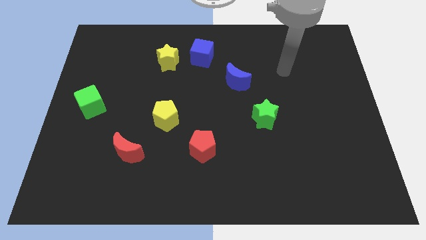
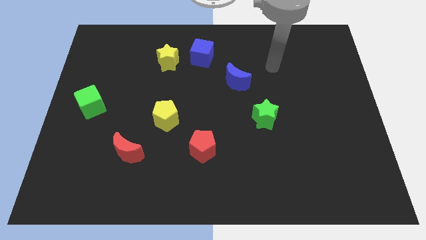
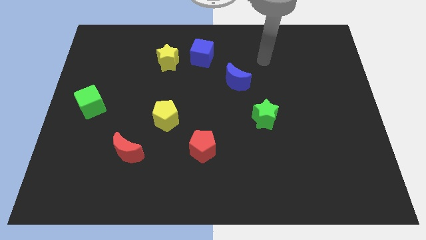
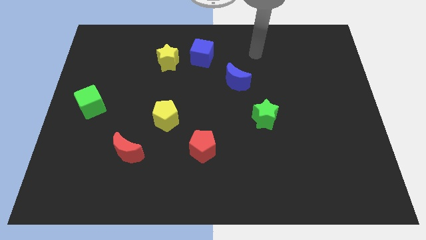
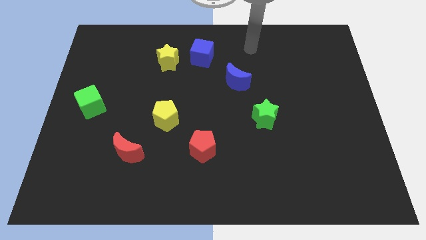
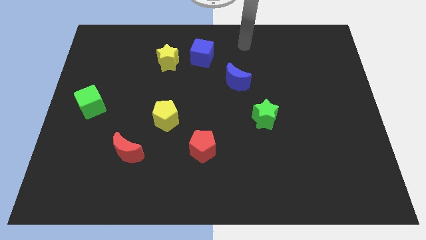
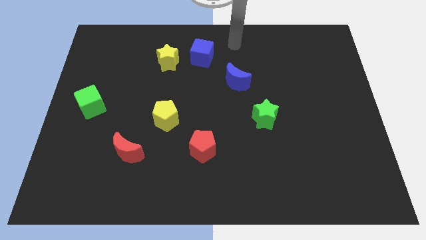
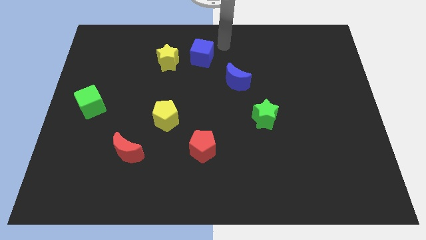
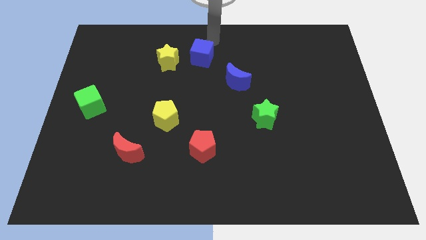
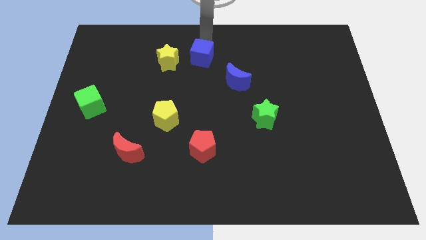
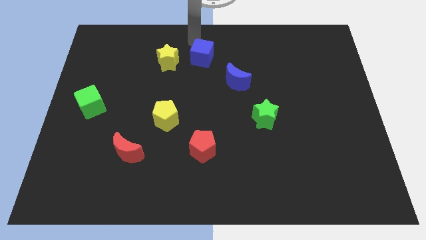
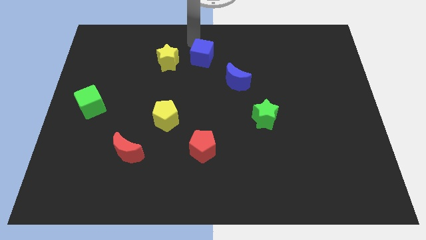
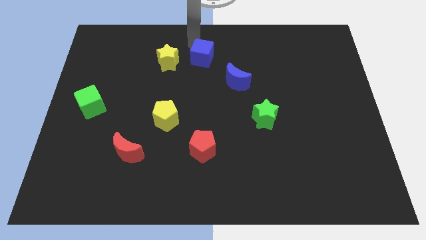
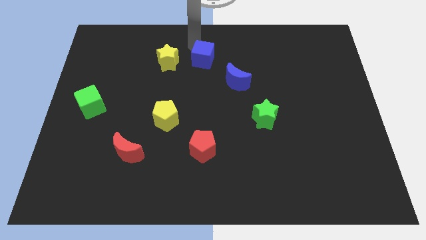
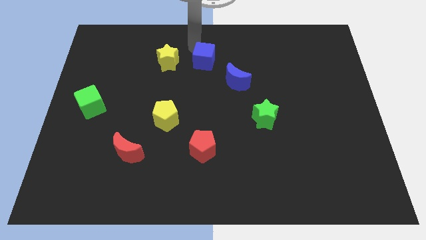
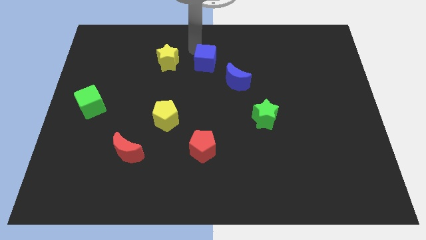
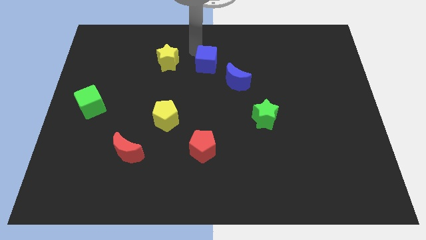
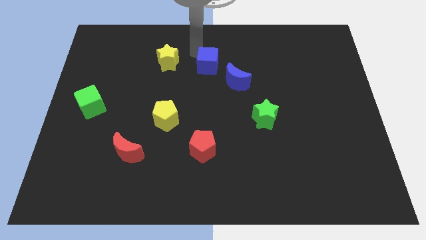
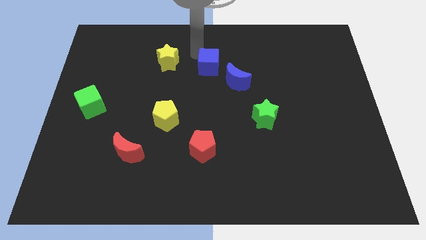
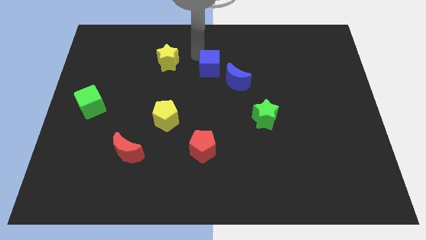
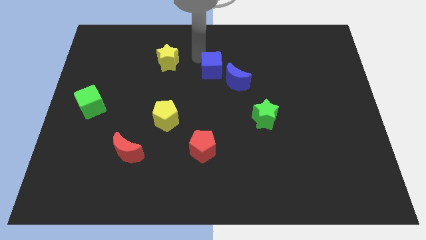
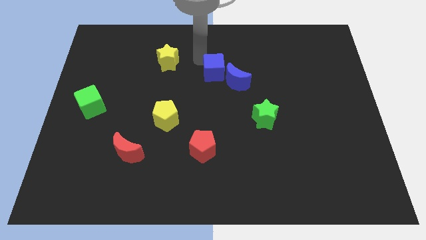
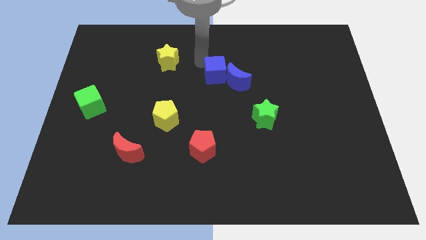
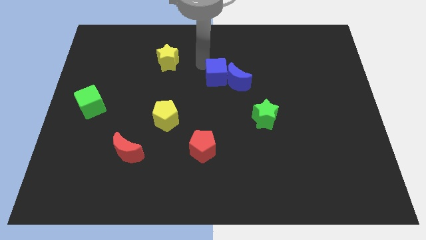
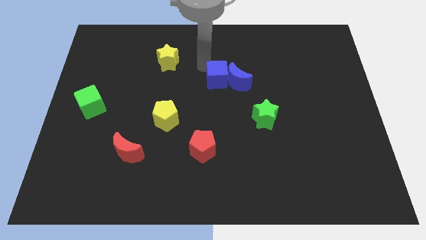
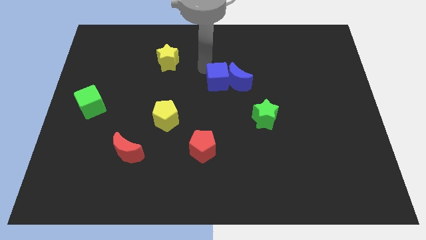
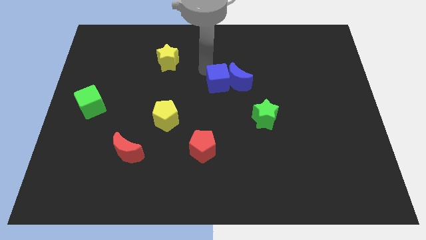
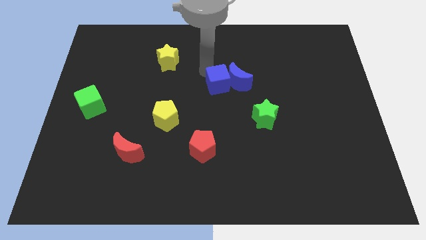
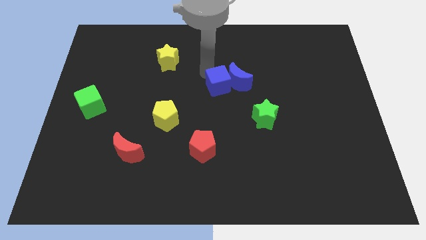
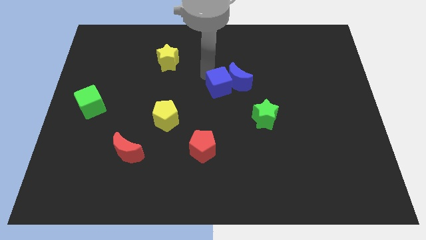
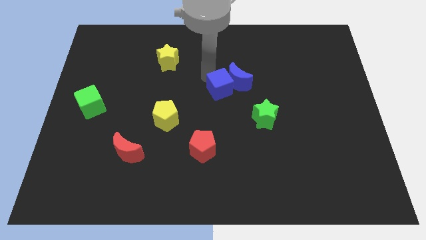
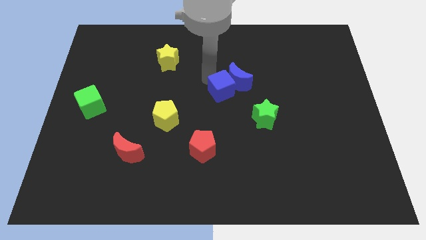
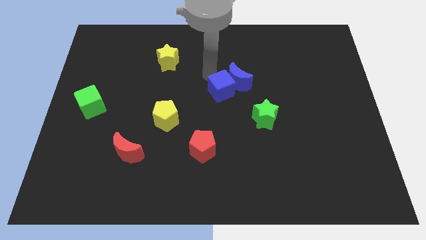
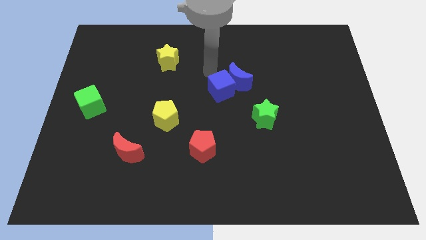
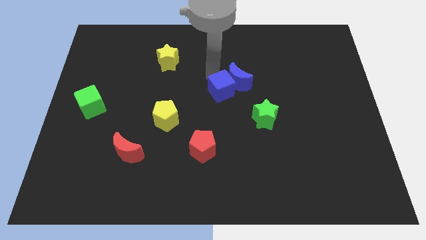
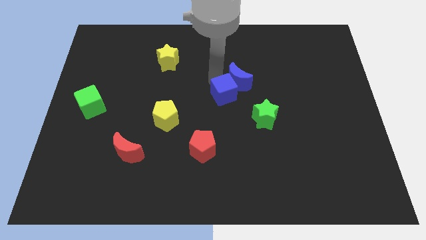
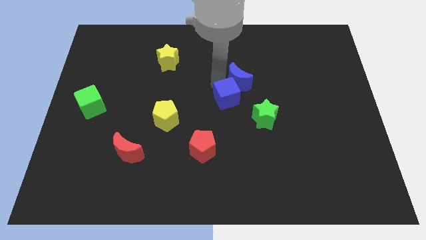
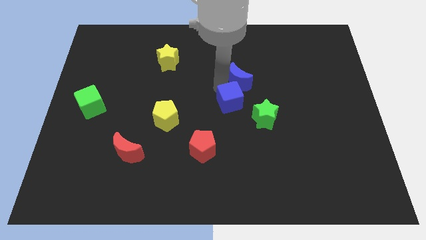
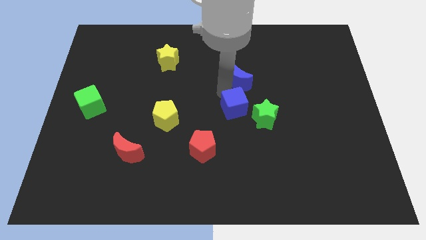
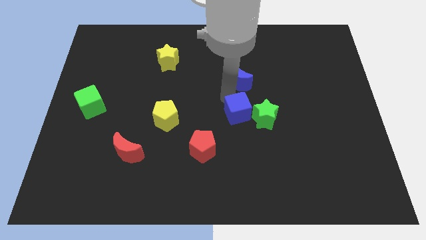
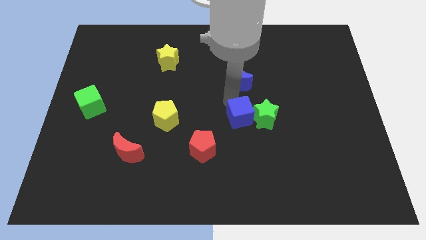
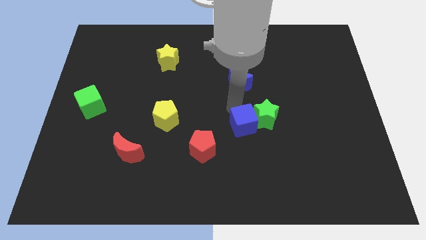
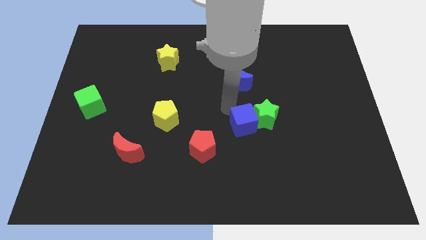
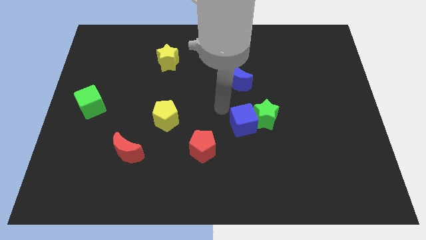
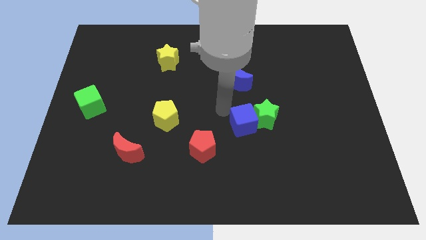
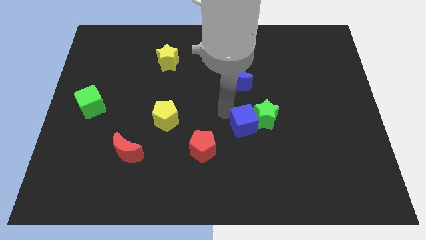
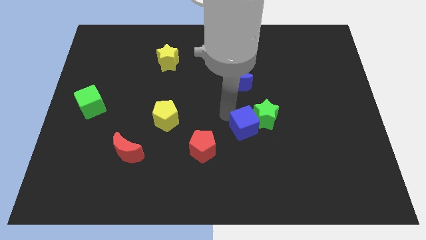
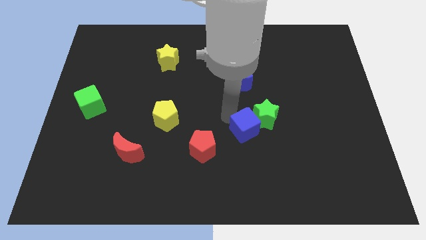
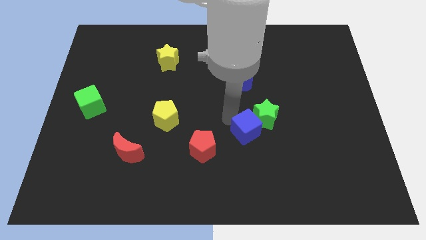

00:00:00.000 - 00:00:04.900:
move the blue cube to the bottom of the green star

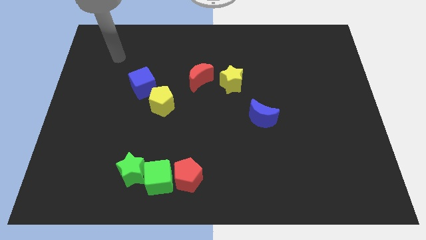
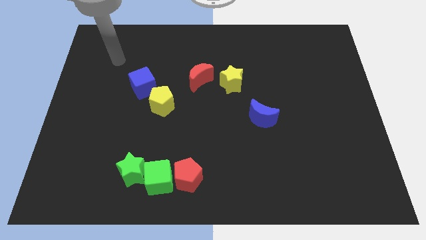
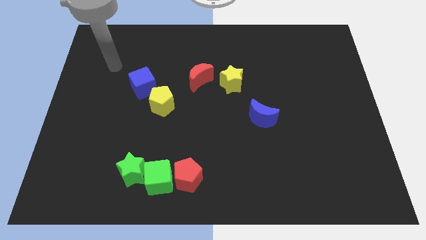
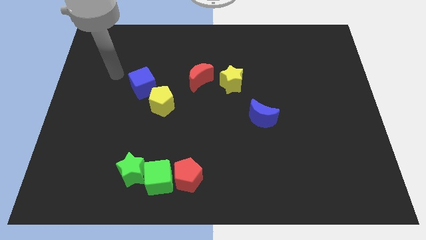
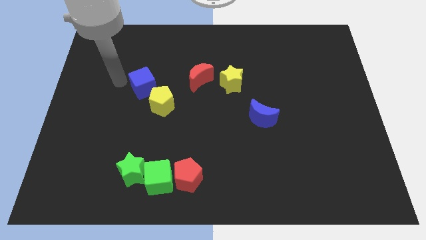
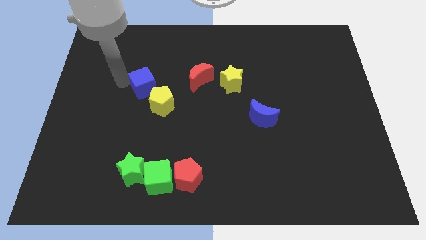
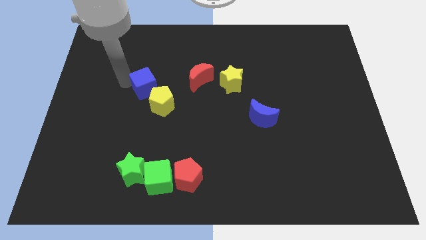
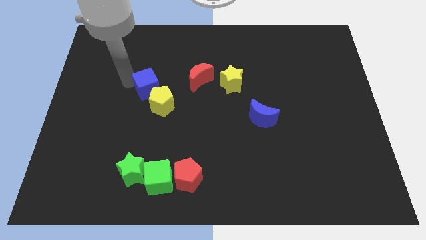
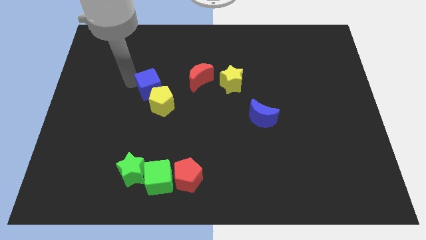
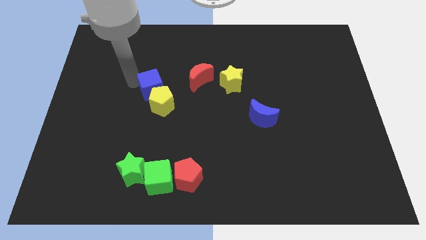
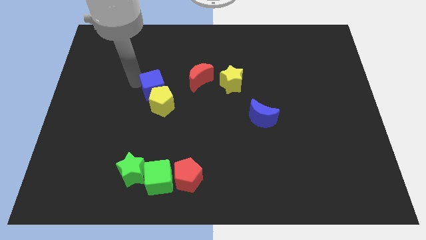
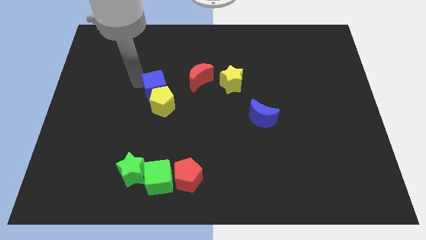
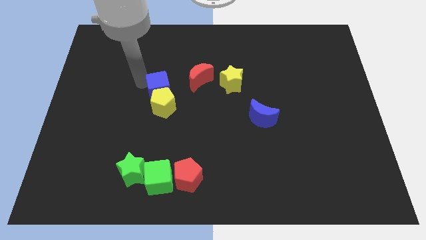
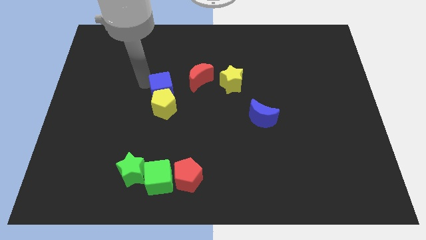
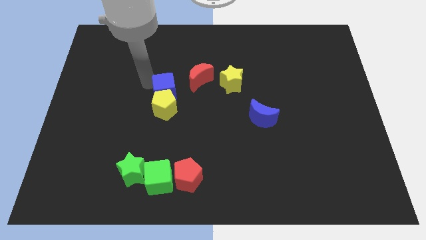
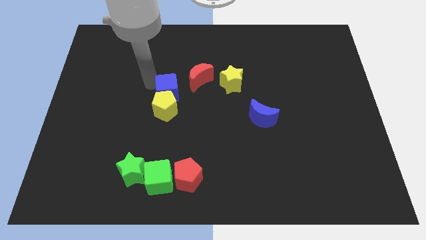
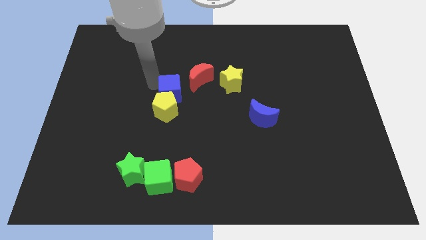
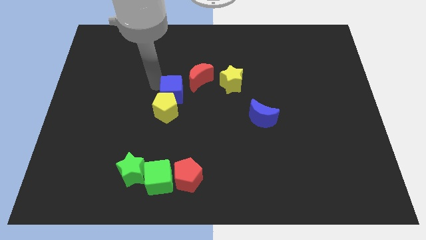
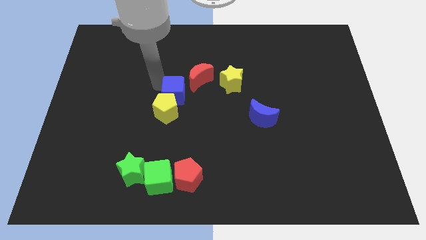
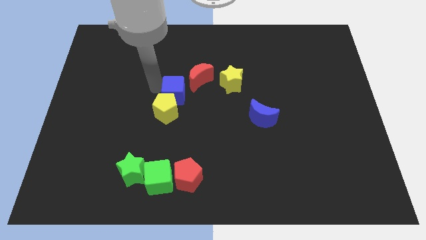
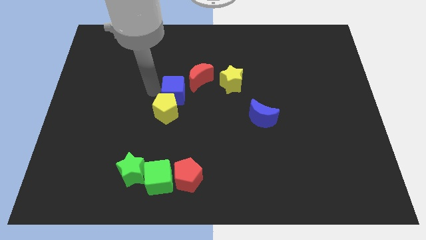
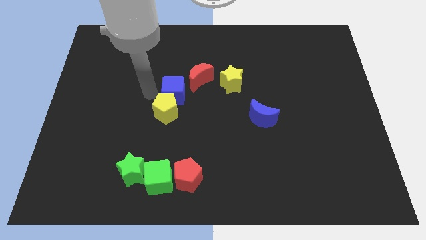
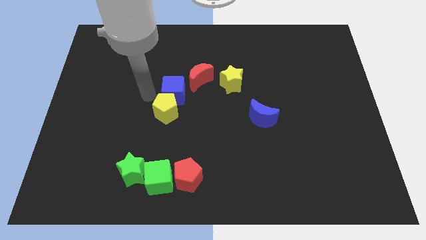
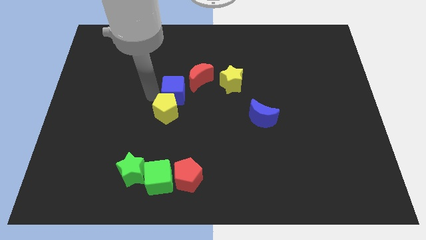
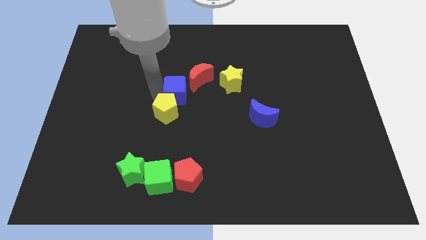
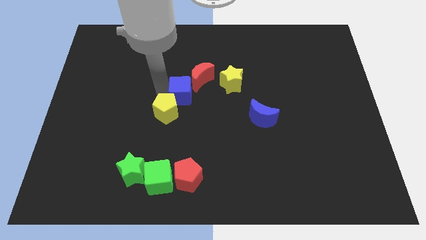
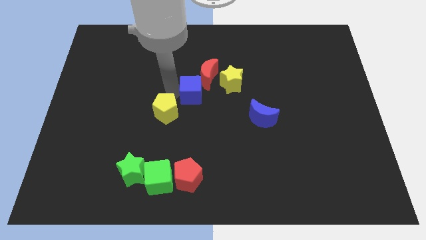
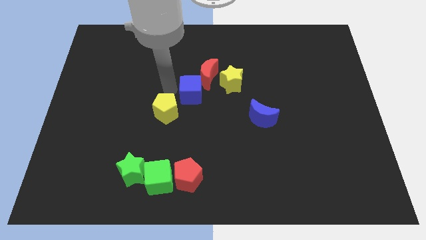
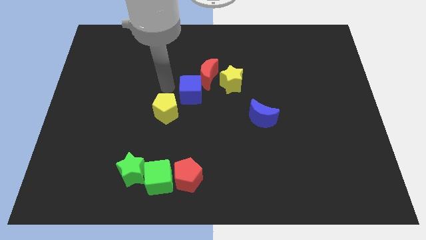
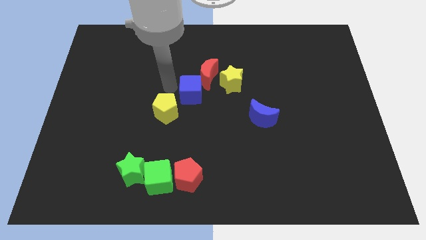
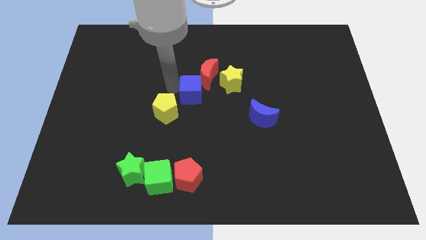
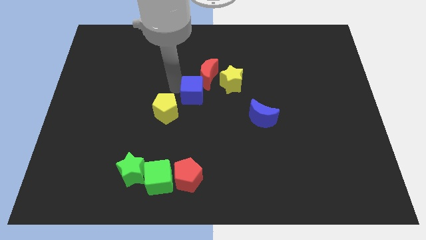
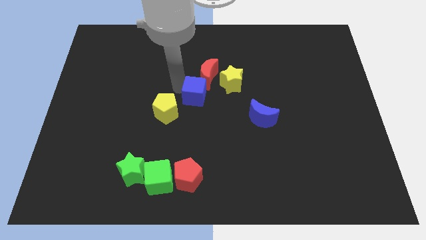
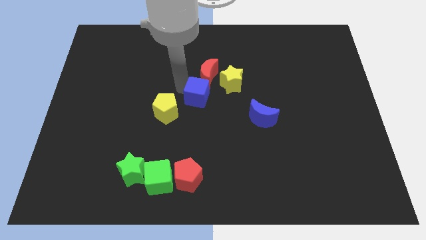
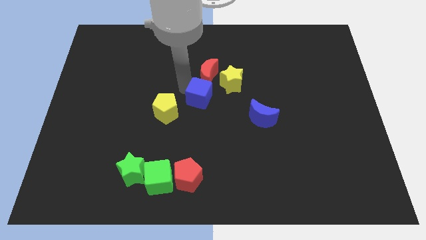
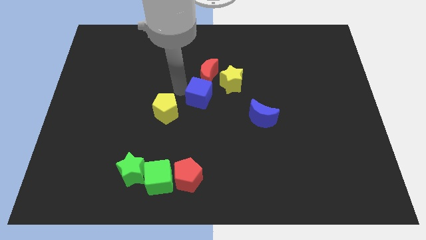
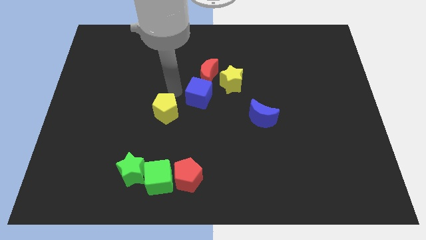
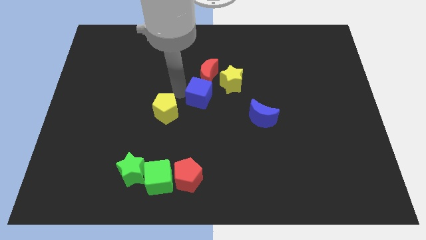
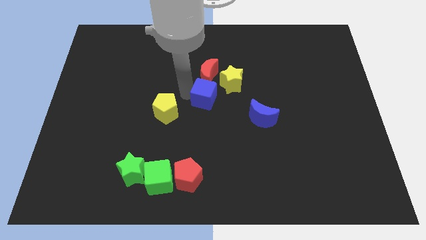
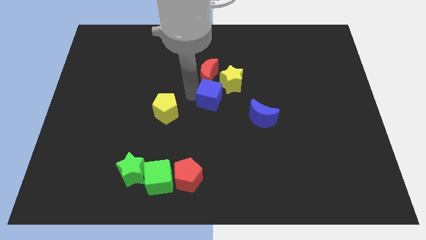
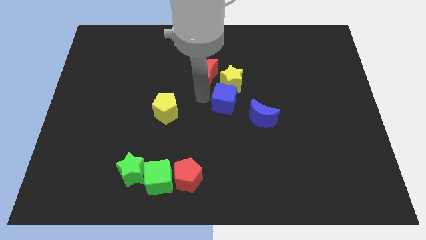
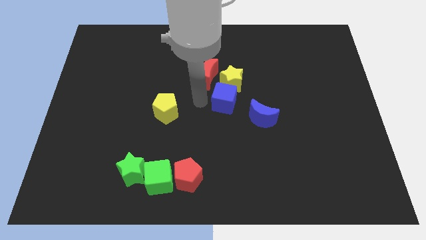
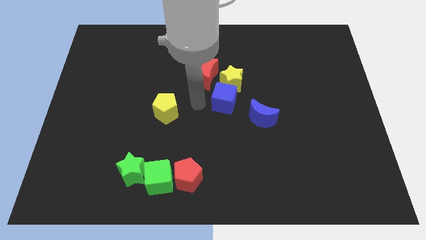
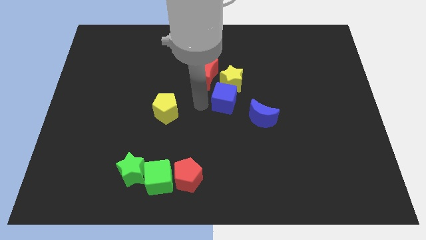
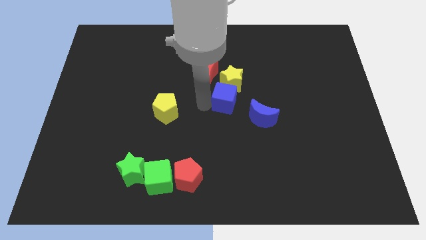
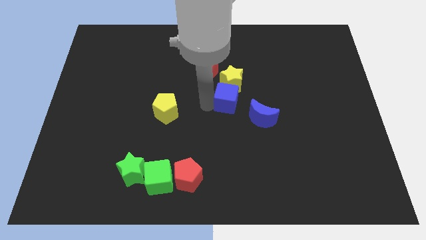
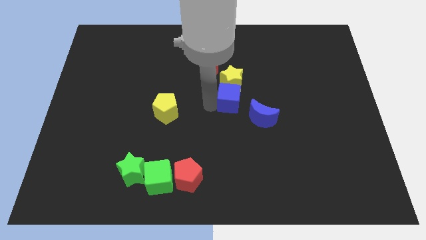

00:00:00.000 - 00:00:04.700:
put the blue cube diagonally down and to the right of the yellow star
